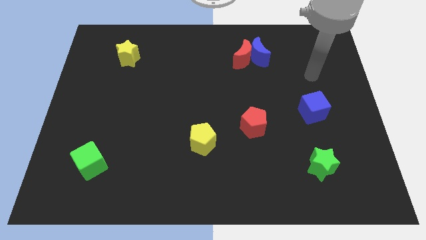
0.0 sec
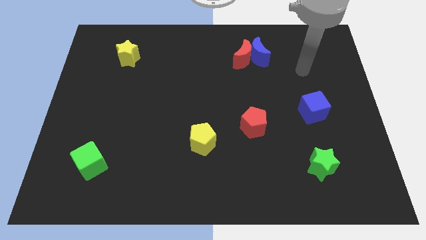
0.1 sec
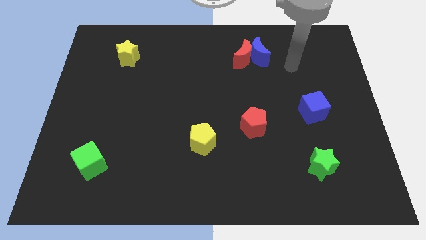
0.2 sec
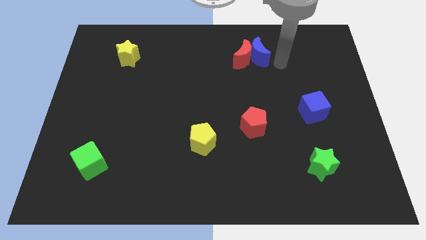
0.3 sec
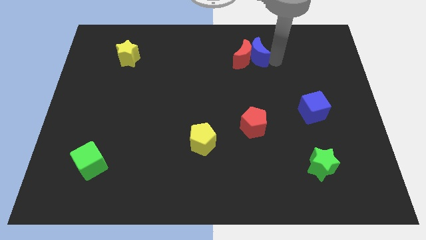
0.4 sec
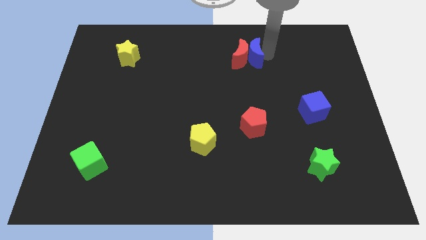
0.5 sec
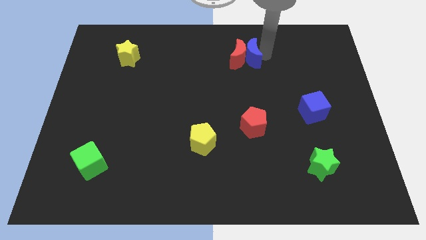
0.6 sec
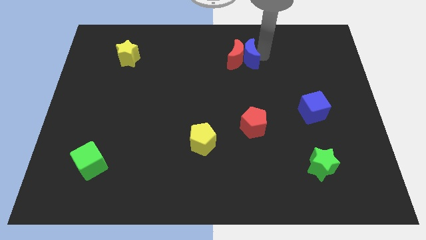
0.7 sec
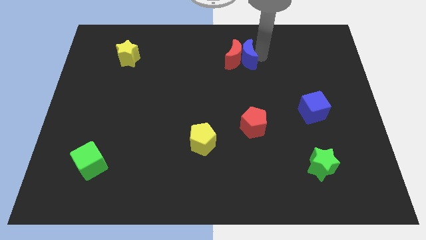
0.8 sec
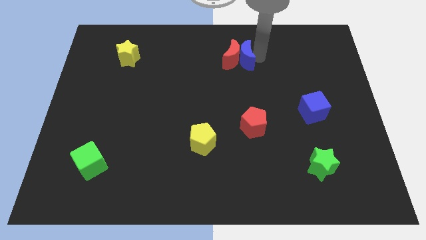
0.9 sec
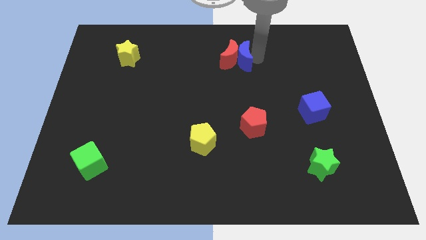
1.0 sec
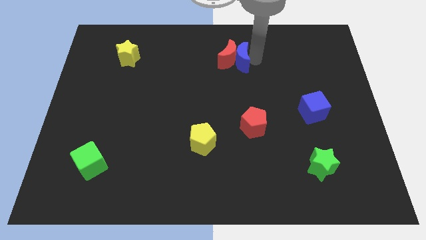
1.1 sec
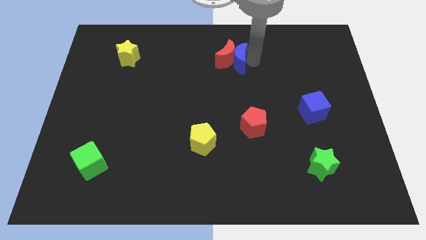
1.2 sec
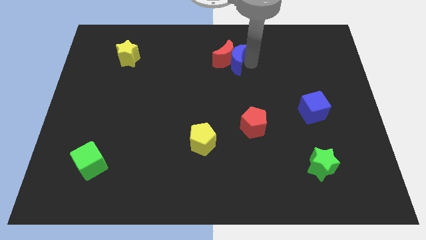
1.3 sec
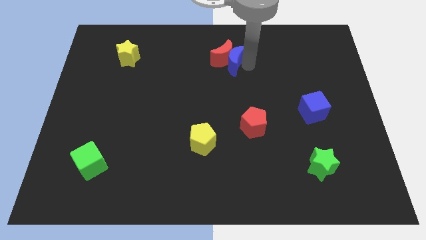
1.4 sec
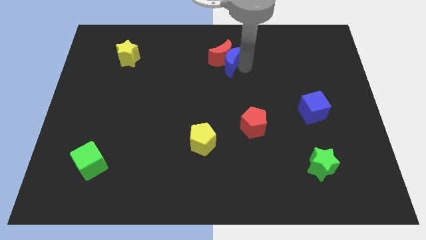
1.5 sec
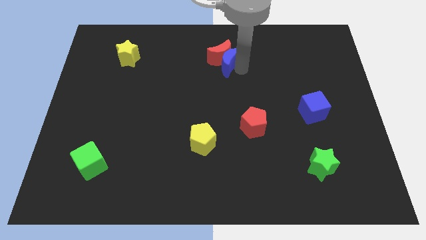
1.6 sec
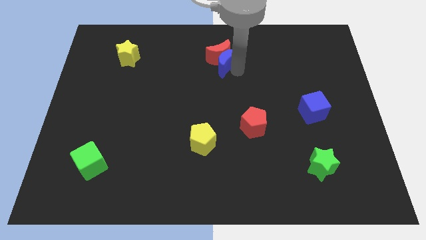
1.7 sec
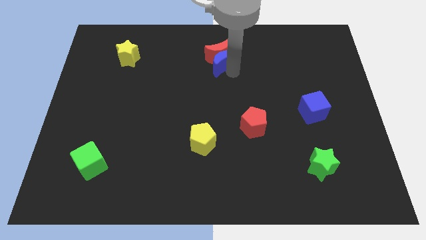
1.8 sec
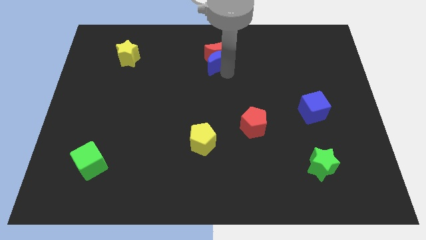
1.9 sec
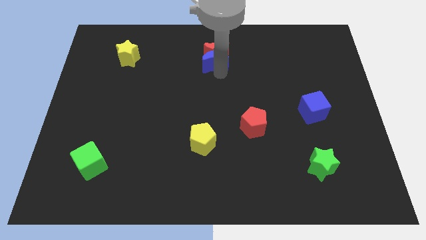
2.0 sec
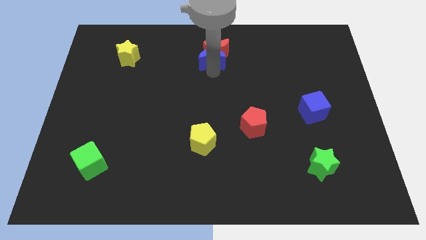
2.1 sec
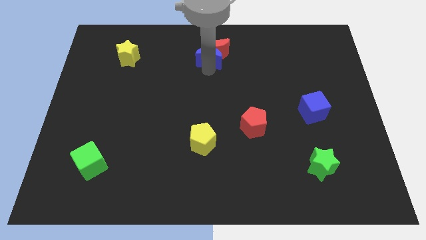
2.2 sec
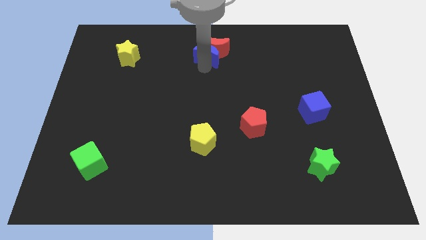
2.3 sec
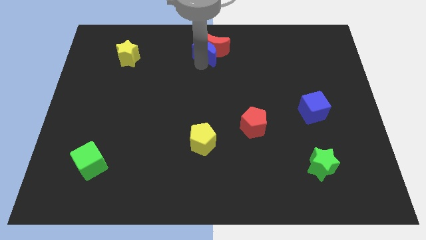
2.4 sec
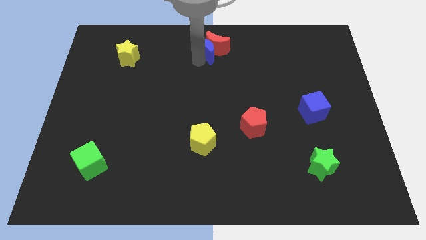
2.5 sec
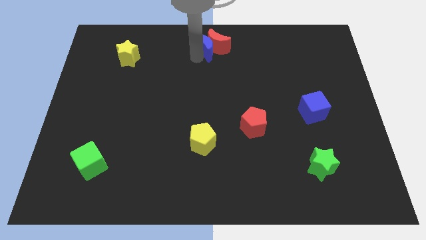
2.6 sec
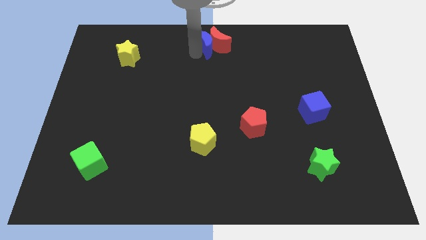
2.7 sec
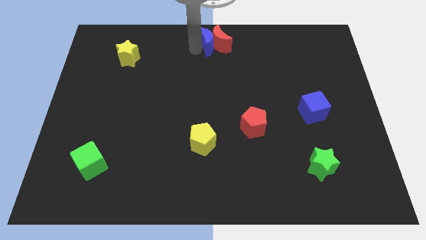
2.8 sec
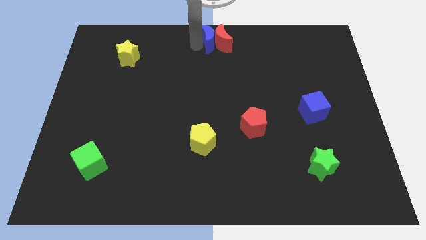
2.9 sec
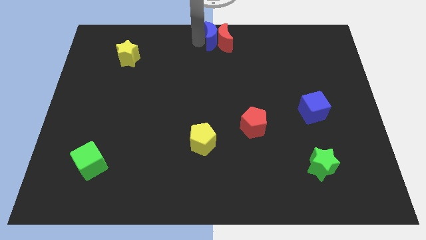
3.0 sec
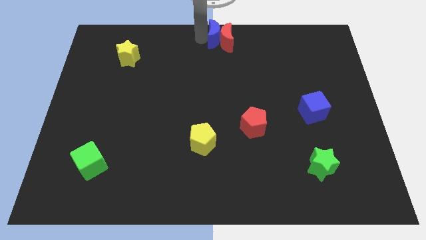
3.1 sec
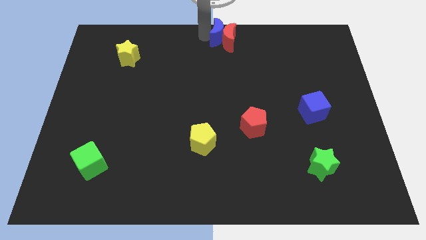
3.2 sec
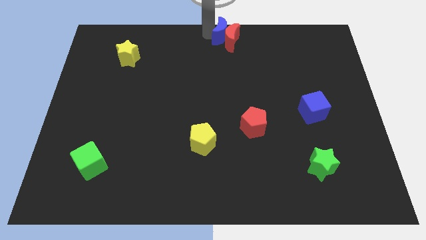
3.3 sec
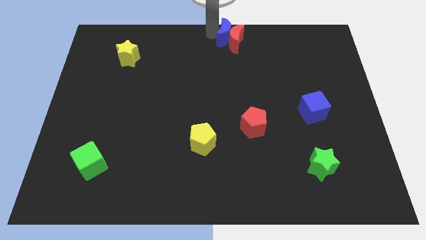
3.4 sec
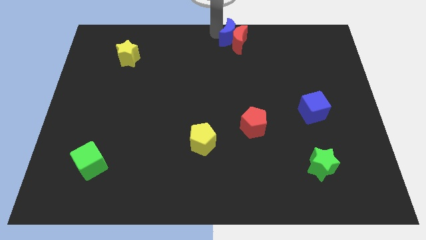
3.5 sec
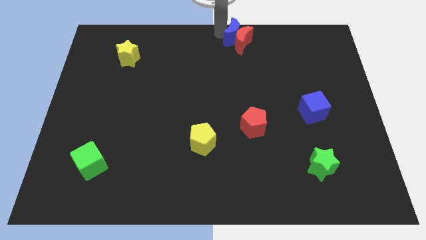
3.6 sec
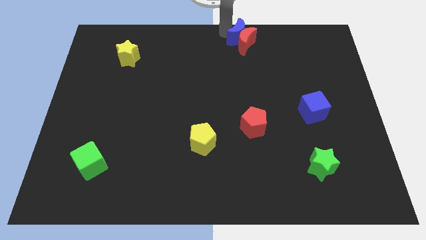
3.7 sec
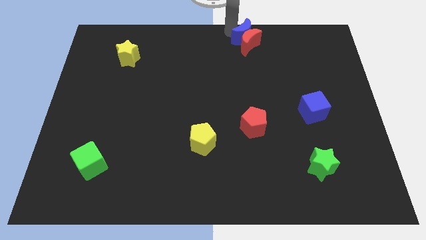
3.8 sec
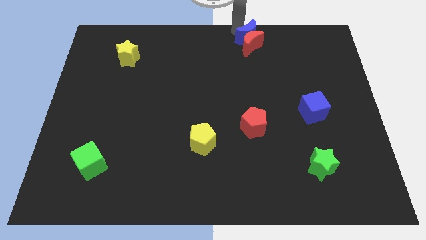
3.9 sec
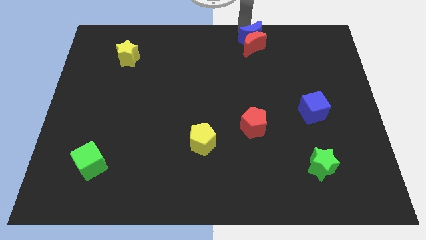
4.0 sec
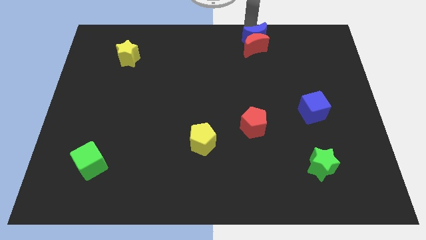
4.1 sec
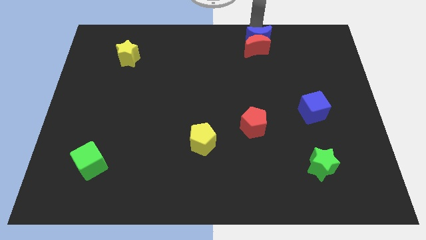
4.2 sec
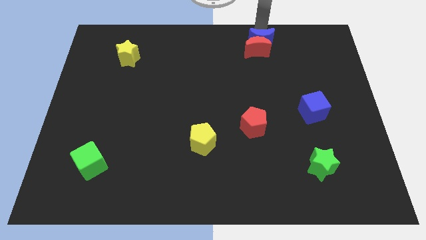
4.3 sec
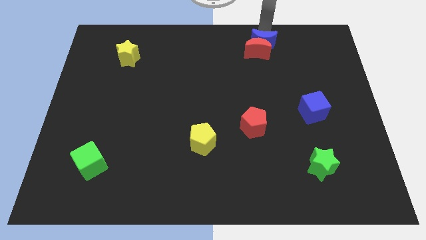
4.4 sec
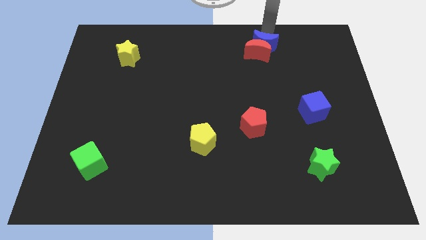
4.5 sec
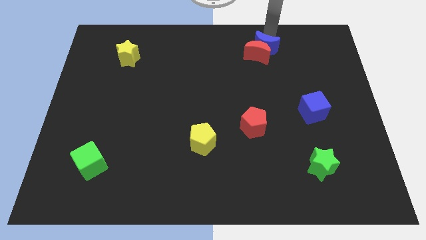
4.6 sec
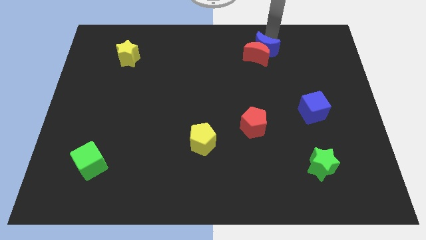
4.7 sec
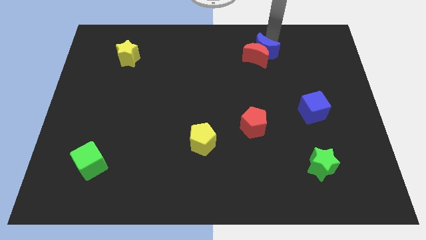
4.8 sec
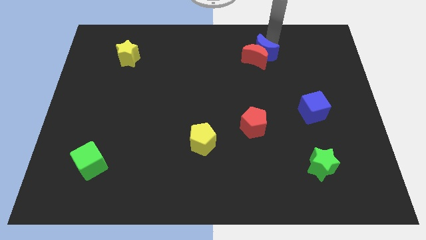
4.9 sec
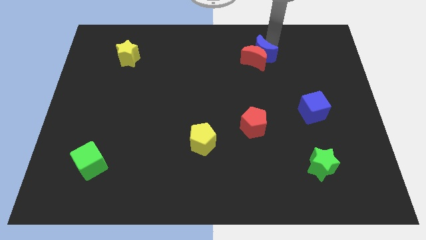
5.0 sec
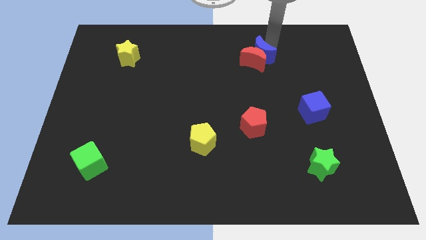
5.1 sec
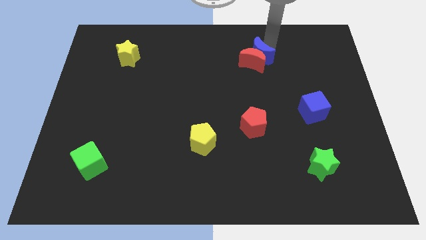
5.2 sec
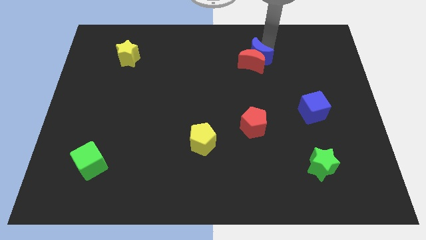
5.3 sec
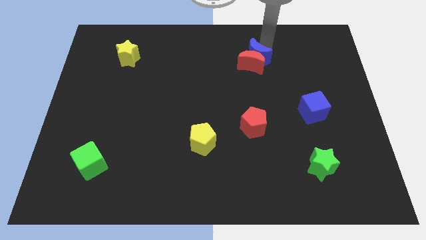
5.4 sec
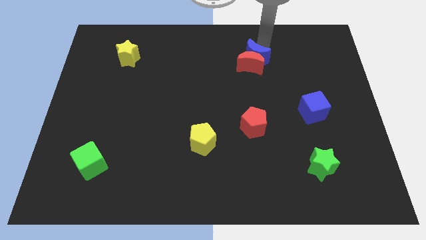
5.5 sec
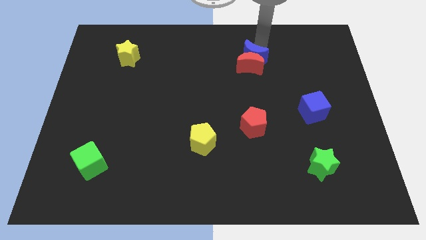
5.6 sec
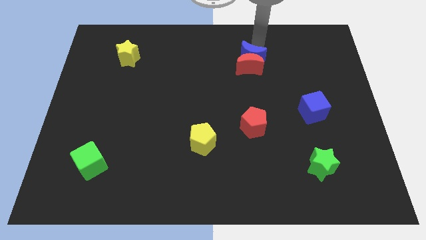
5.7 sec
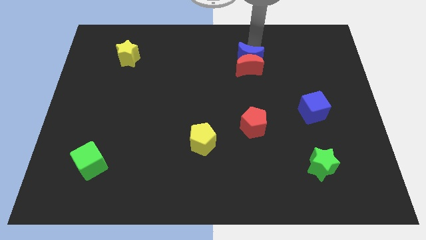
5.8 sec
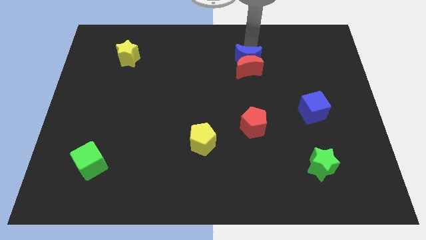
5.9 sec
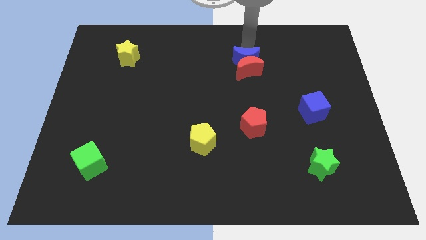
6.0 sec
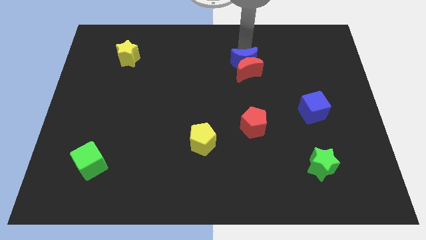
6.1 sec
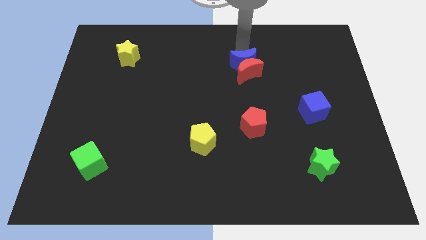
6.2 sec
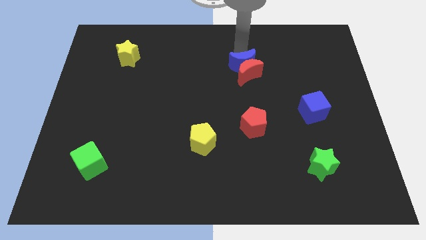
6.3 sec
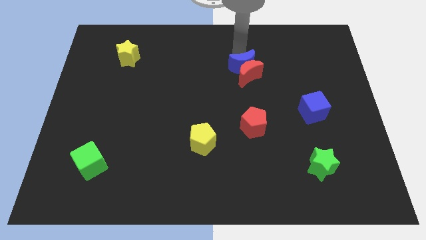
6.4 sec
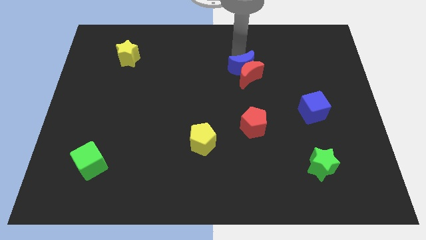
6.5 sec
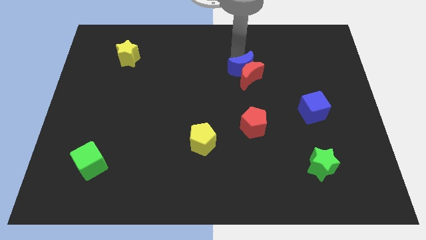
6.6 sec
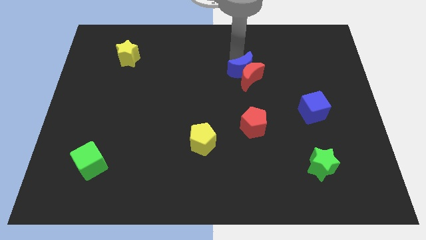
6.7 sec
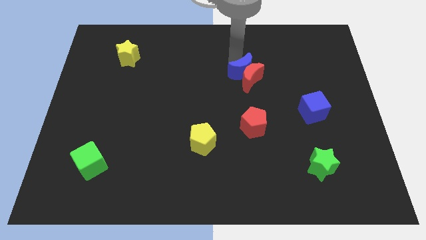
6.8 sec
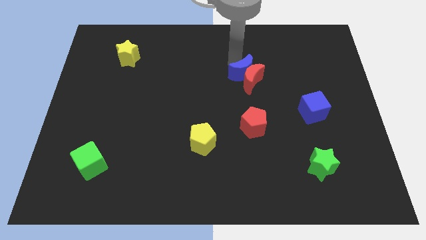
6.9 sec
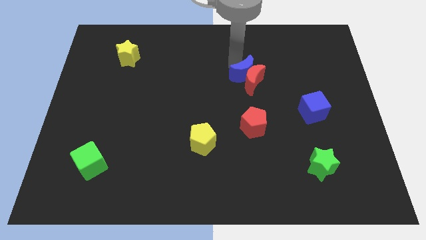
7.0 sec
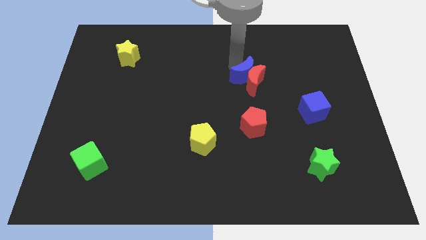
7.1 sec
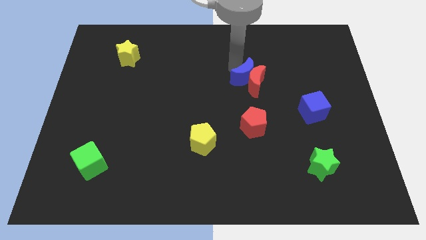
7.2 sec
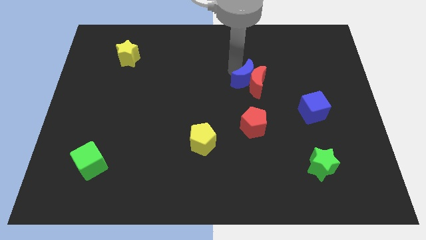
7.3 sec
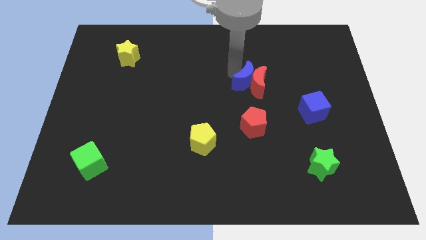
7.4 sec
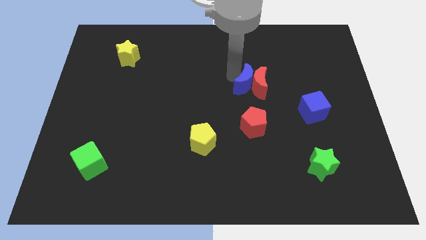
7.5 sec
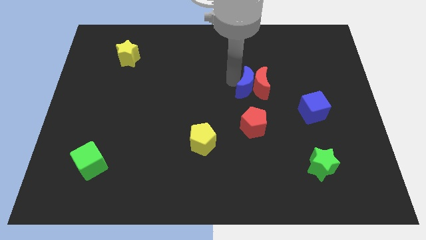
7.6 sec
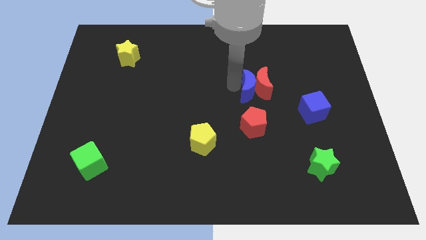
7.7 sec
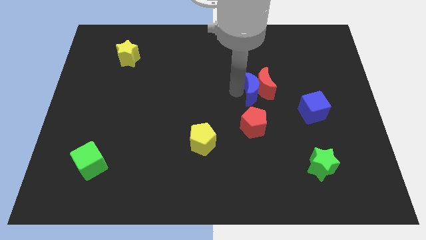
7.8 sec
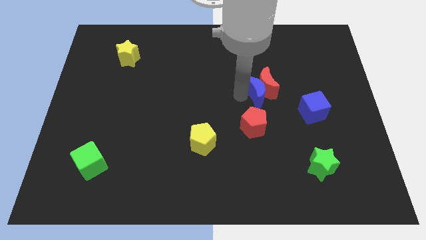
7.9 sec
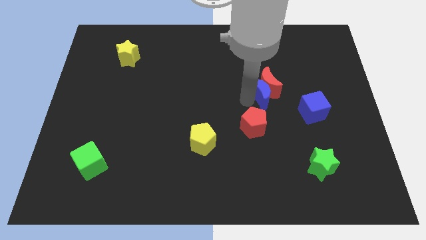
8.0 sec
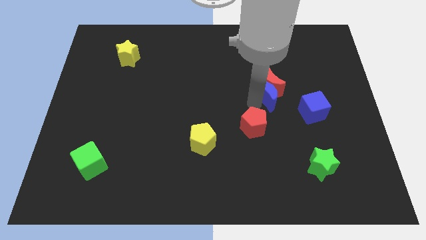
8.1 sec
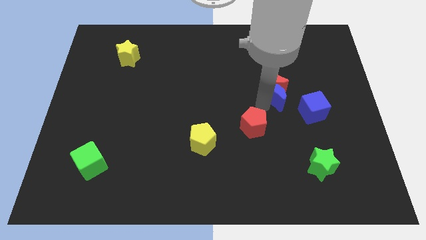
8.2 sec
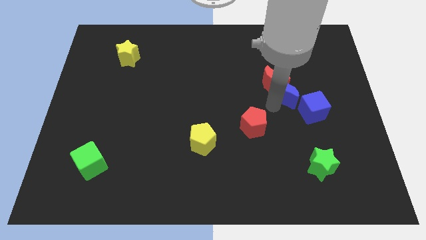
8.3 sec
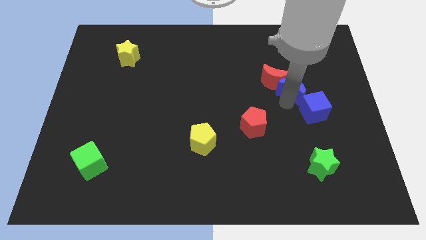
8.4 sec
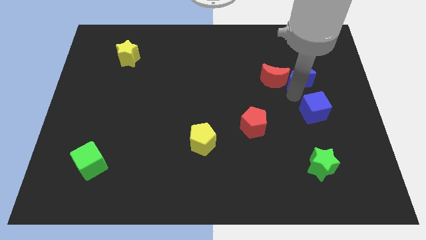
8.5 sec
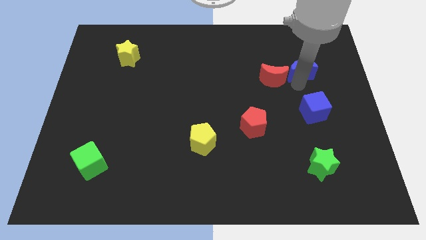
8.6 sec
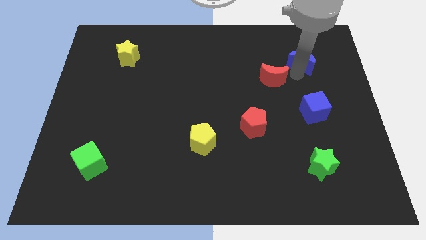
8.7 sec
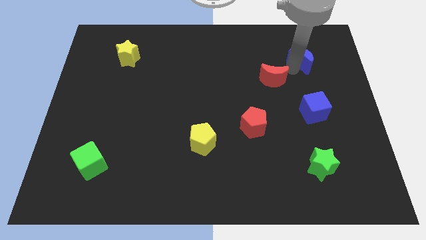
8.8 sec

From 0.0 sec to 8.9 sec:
move the red moon away from the blue moon

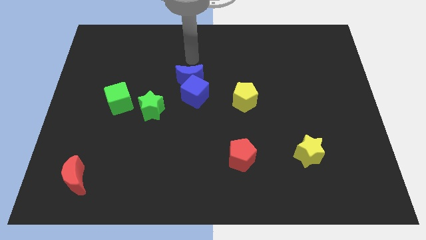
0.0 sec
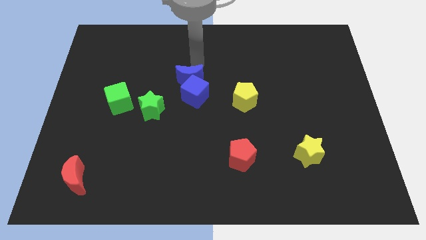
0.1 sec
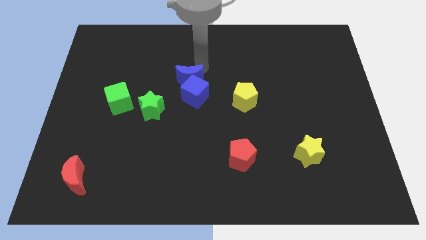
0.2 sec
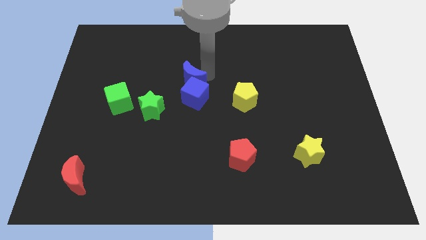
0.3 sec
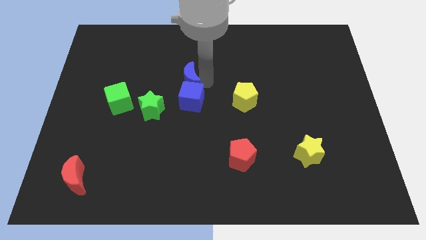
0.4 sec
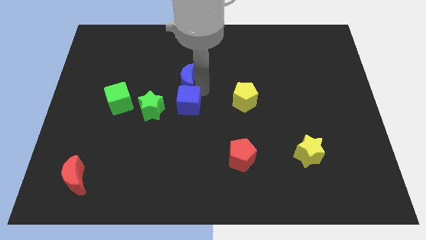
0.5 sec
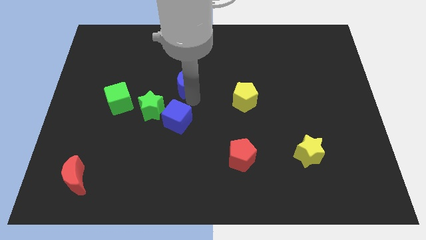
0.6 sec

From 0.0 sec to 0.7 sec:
pull the blue moon apart from the blue cube
